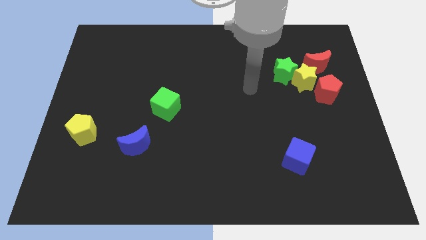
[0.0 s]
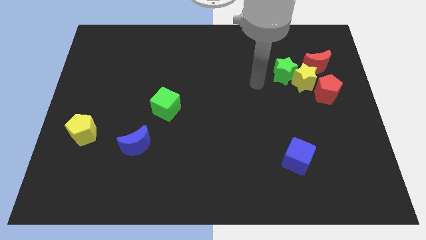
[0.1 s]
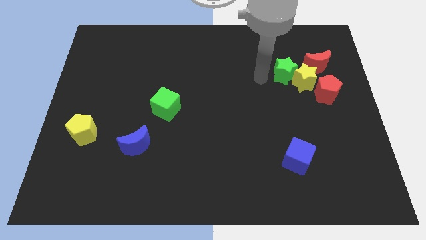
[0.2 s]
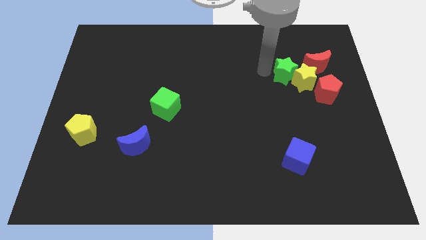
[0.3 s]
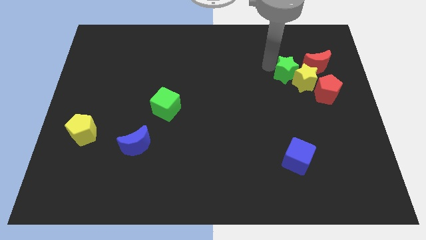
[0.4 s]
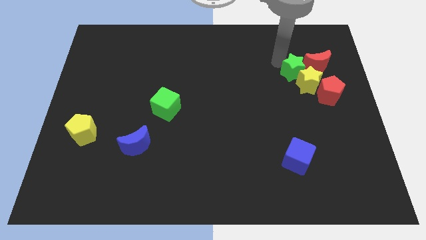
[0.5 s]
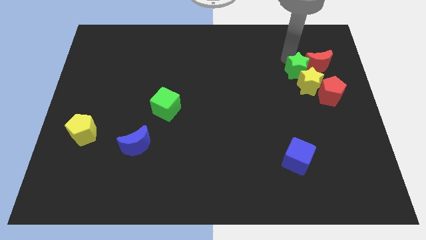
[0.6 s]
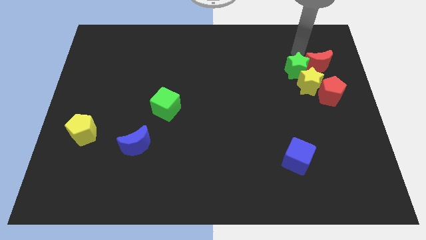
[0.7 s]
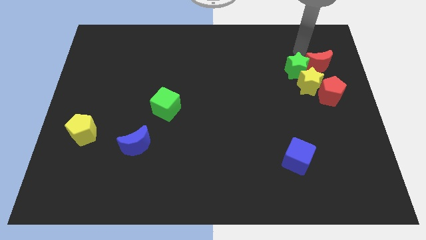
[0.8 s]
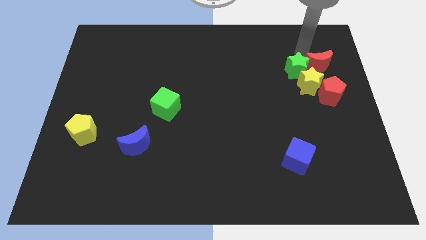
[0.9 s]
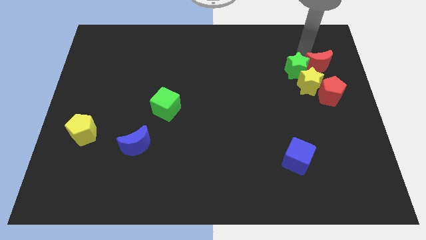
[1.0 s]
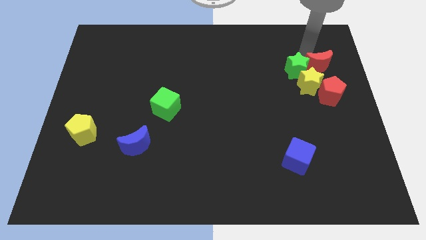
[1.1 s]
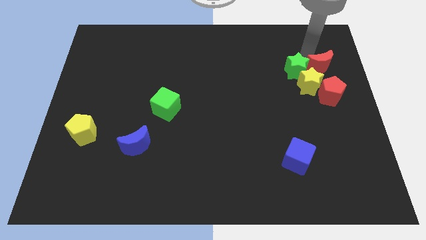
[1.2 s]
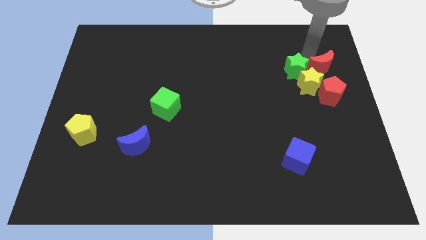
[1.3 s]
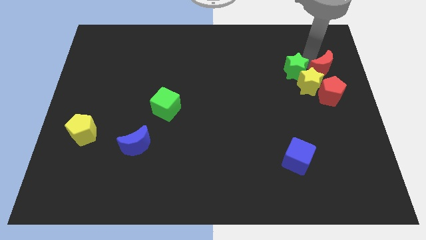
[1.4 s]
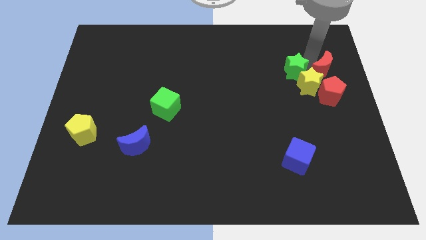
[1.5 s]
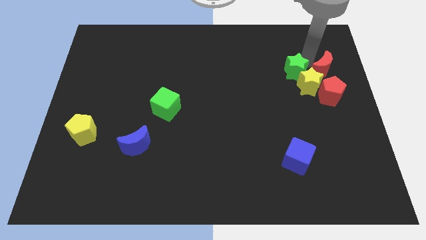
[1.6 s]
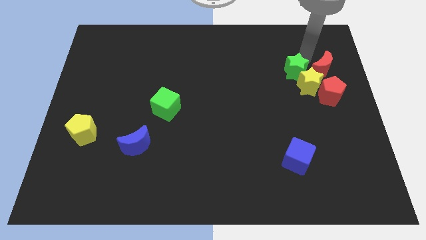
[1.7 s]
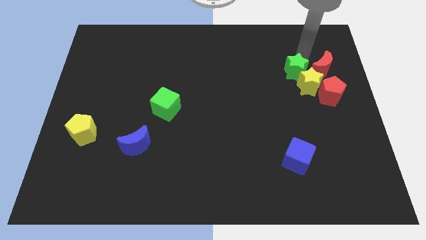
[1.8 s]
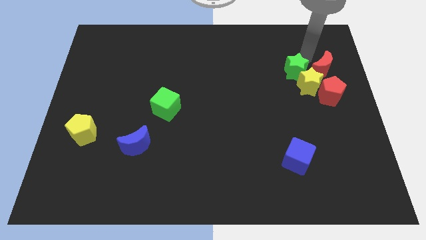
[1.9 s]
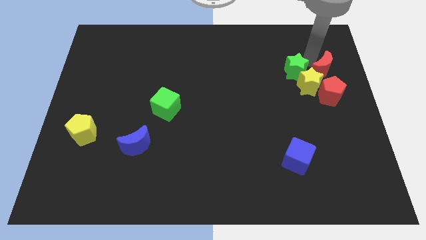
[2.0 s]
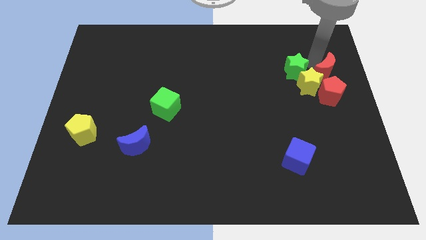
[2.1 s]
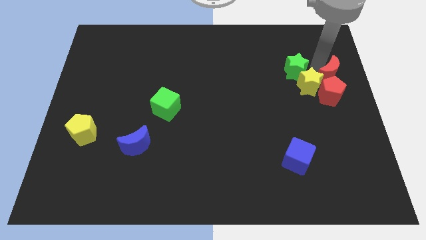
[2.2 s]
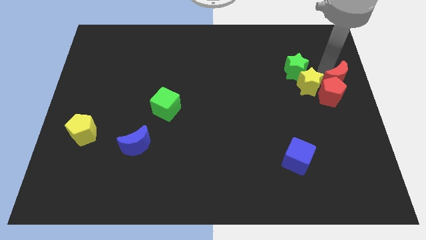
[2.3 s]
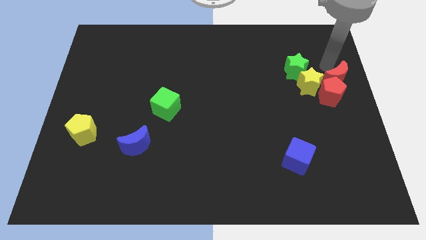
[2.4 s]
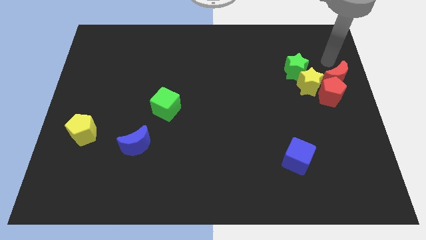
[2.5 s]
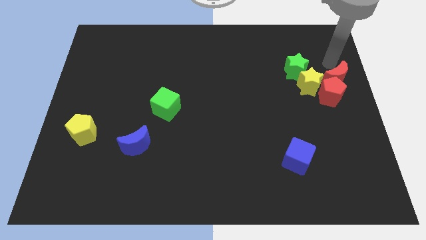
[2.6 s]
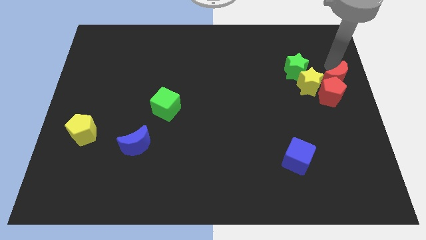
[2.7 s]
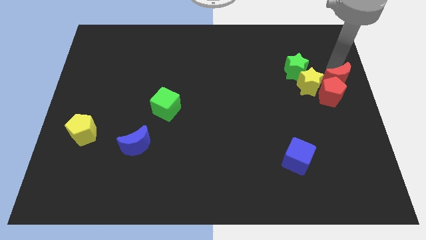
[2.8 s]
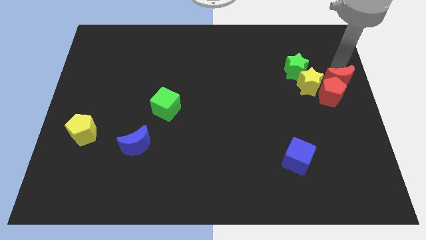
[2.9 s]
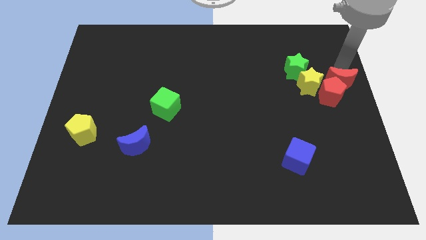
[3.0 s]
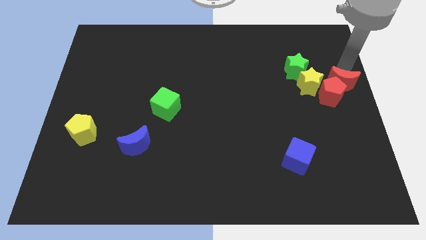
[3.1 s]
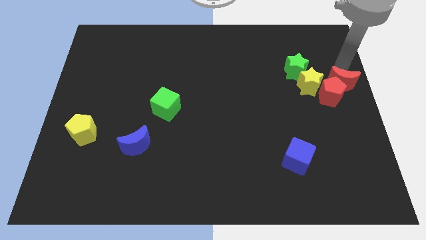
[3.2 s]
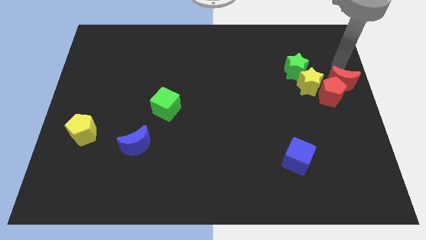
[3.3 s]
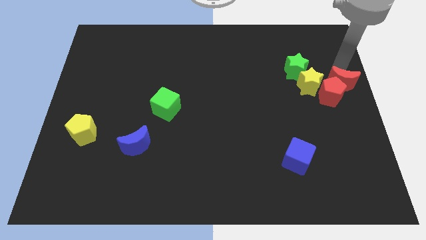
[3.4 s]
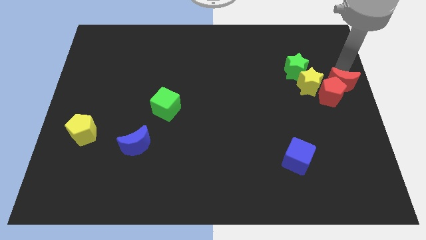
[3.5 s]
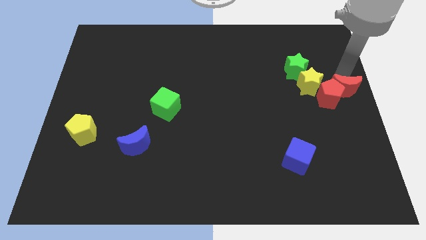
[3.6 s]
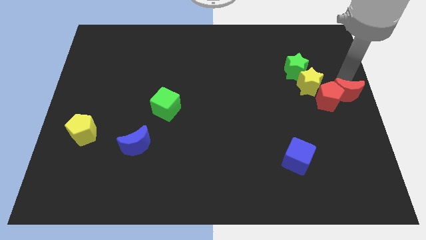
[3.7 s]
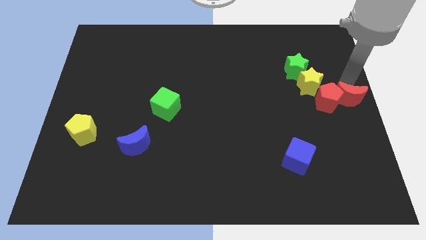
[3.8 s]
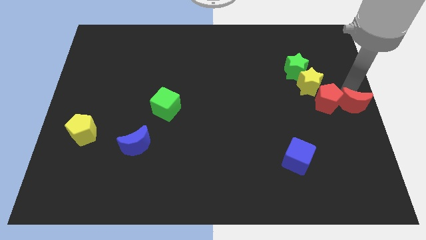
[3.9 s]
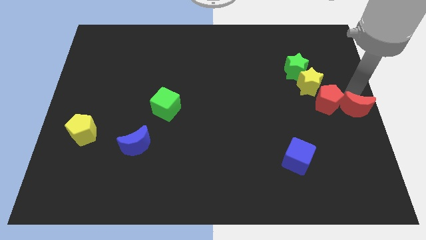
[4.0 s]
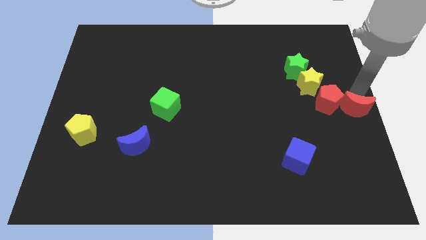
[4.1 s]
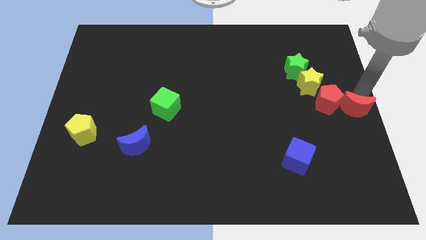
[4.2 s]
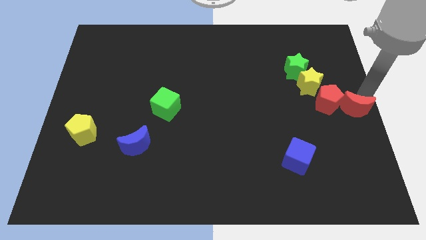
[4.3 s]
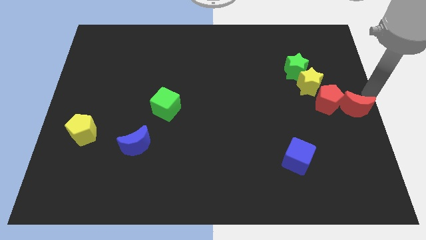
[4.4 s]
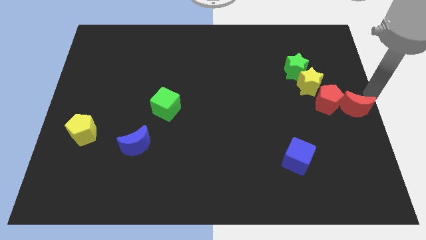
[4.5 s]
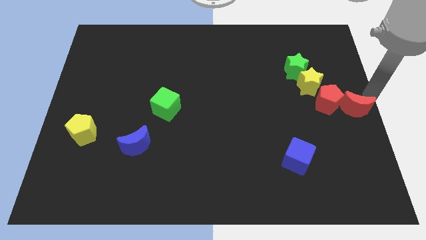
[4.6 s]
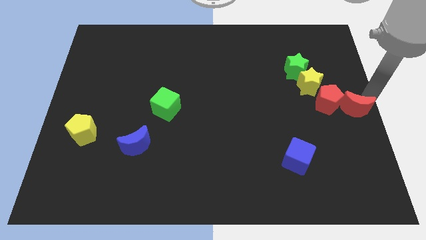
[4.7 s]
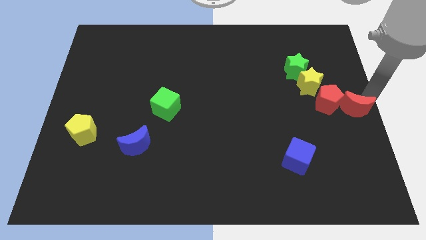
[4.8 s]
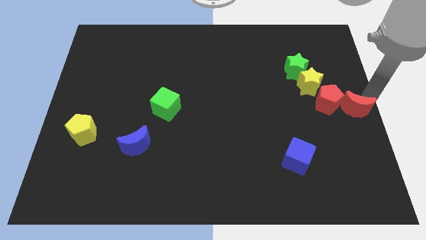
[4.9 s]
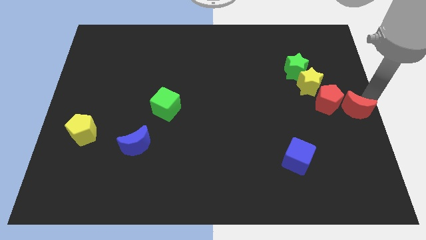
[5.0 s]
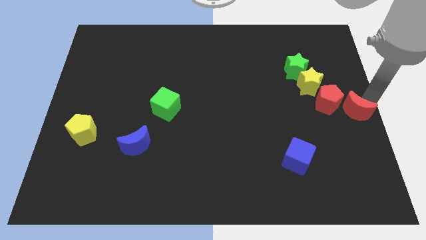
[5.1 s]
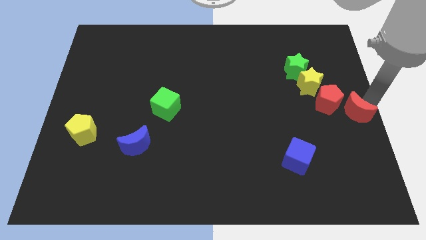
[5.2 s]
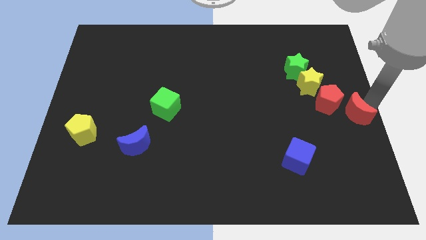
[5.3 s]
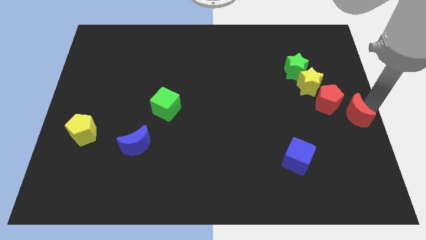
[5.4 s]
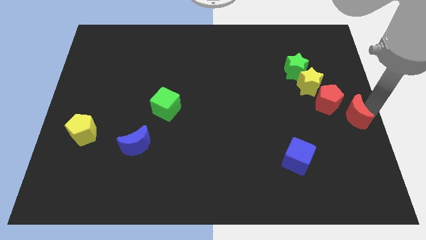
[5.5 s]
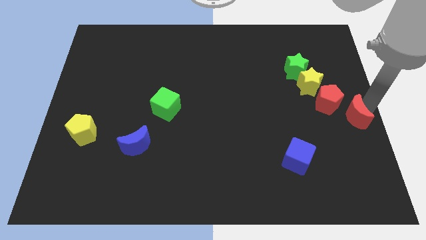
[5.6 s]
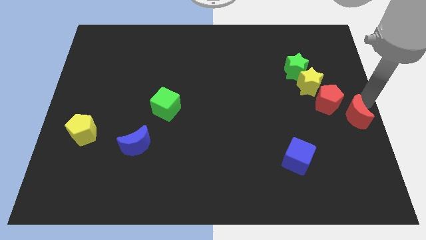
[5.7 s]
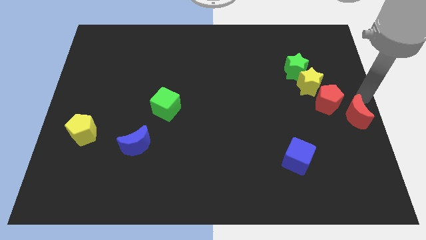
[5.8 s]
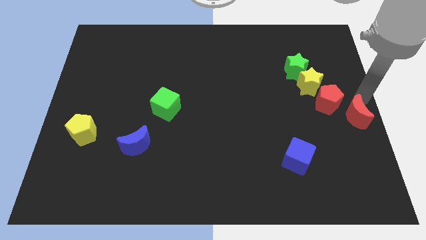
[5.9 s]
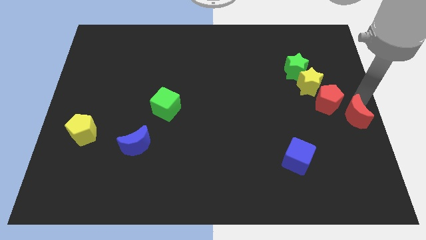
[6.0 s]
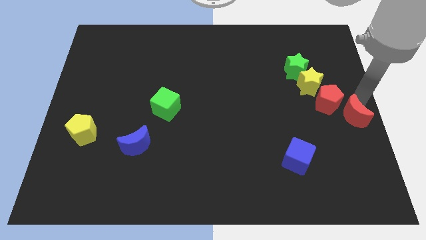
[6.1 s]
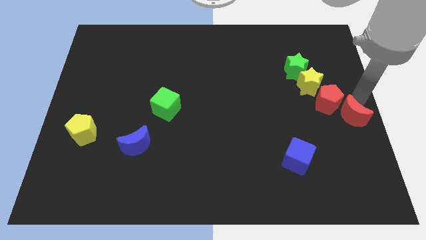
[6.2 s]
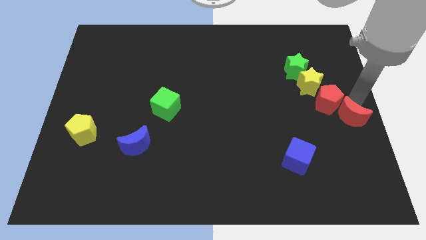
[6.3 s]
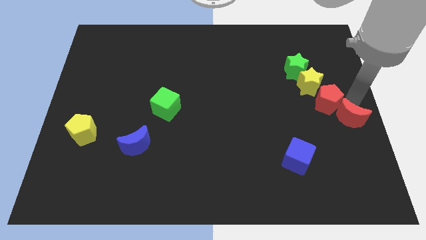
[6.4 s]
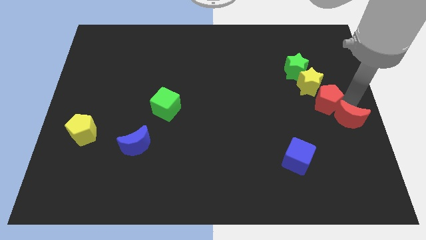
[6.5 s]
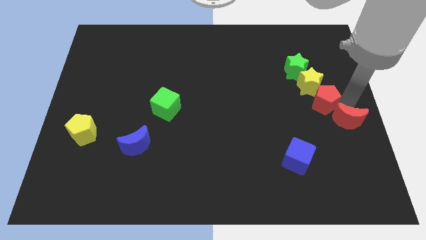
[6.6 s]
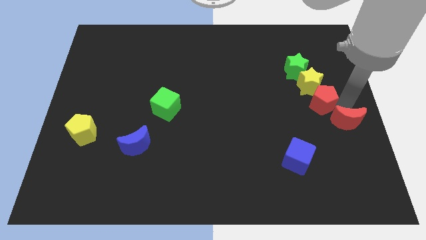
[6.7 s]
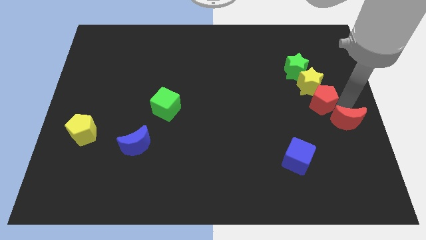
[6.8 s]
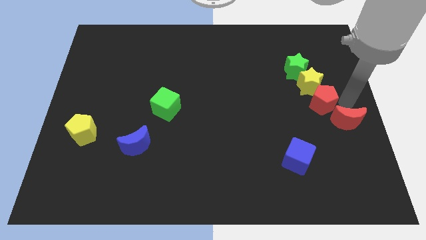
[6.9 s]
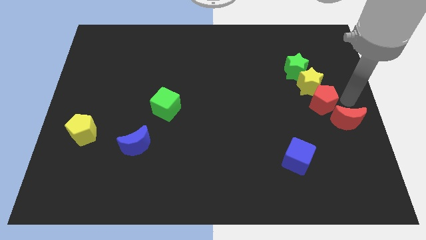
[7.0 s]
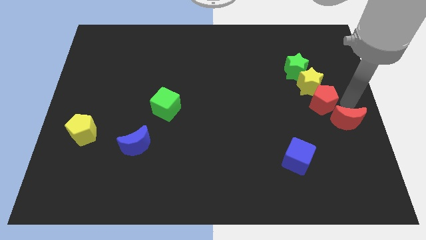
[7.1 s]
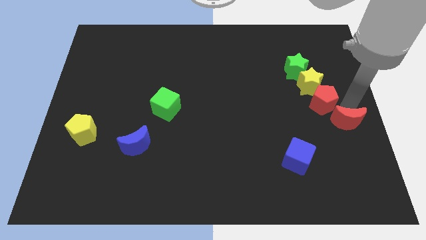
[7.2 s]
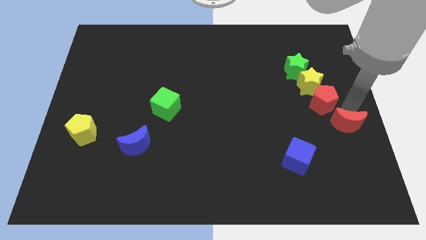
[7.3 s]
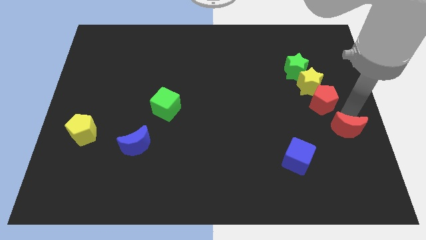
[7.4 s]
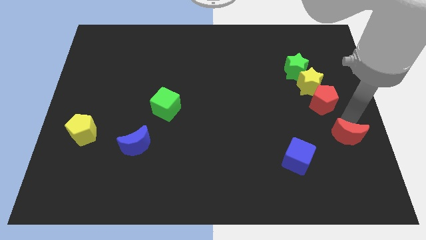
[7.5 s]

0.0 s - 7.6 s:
move the red moon downwards

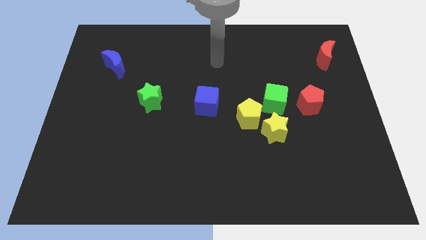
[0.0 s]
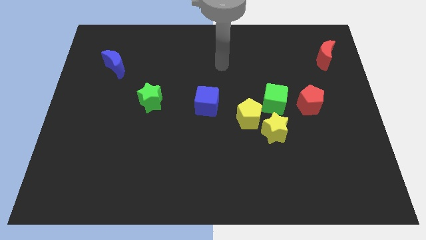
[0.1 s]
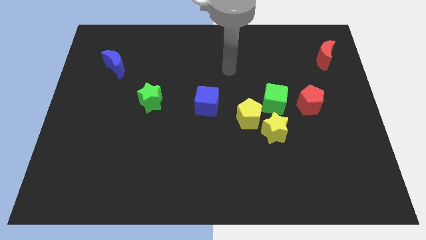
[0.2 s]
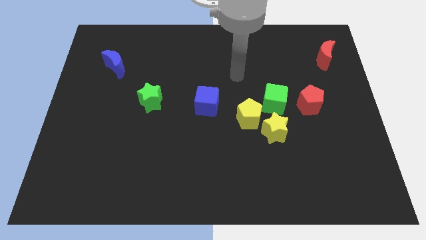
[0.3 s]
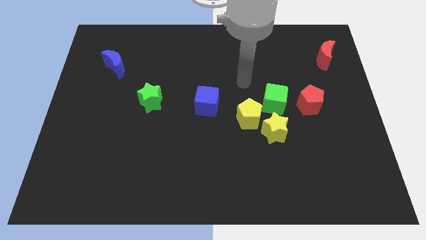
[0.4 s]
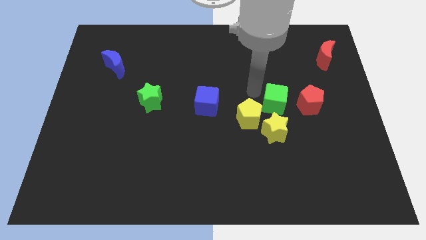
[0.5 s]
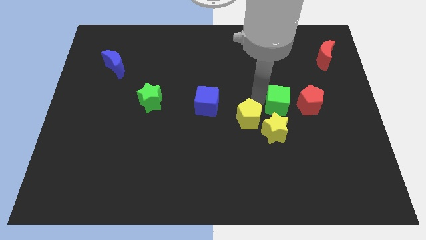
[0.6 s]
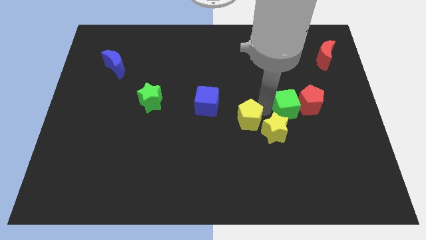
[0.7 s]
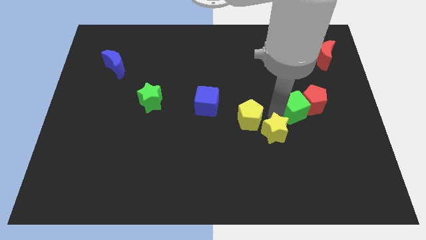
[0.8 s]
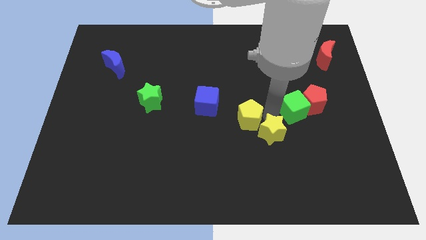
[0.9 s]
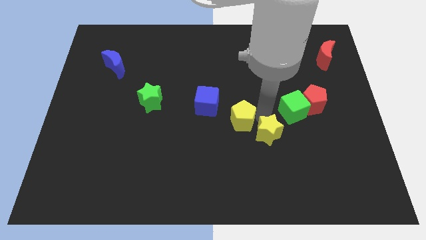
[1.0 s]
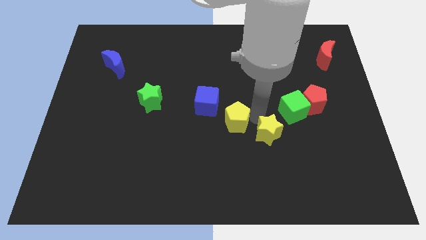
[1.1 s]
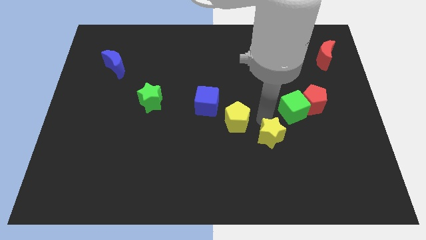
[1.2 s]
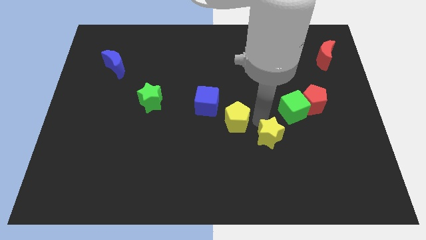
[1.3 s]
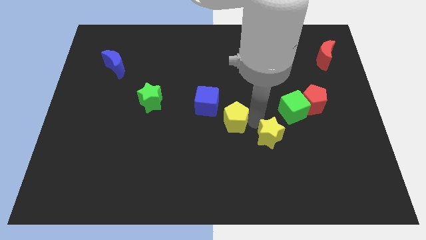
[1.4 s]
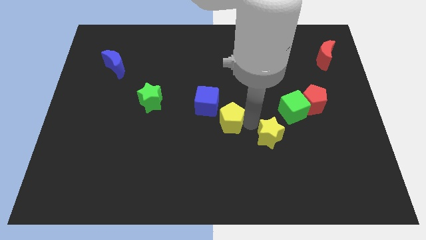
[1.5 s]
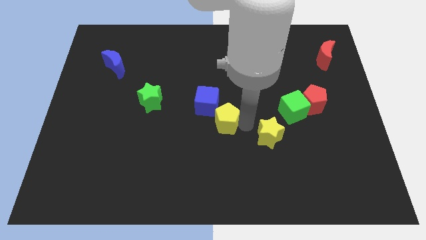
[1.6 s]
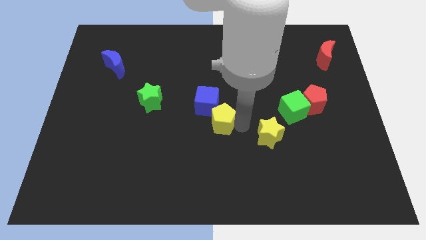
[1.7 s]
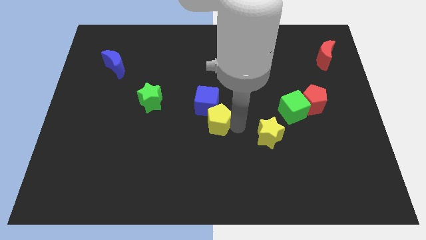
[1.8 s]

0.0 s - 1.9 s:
move the yellow pentagon a little bit left
